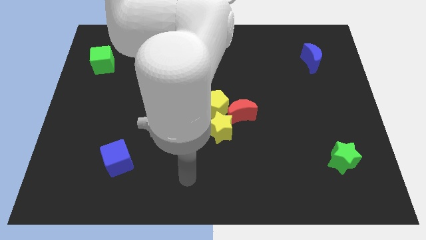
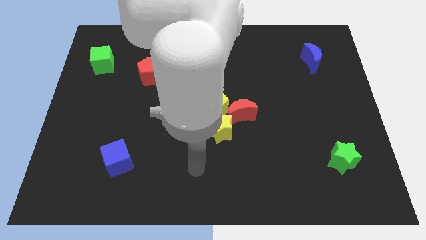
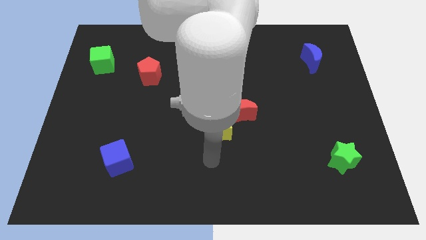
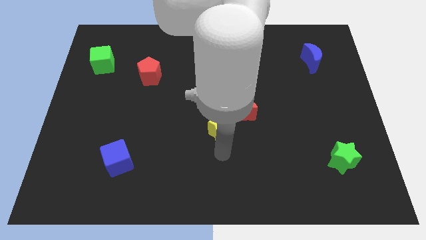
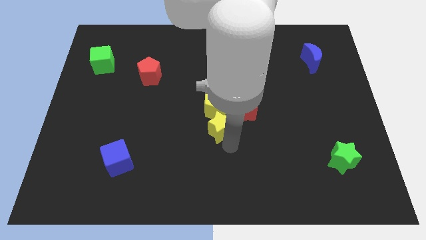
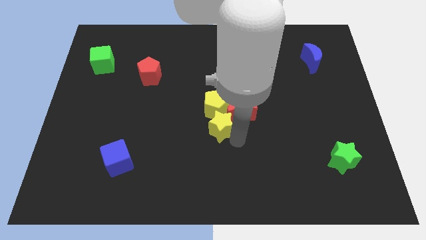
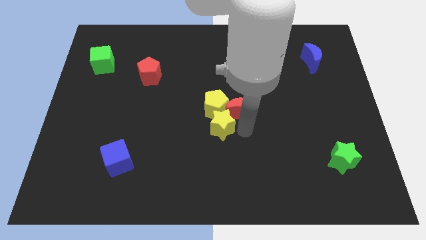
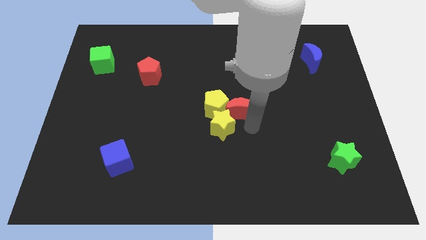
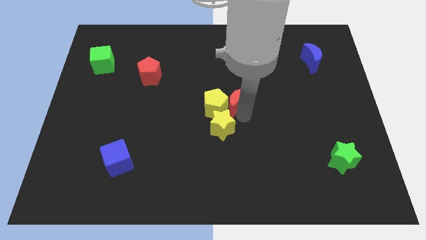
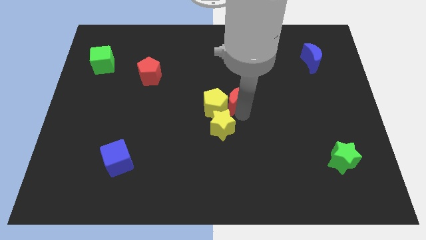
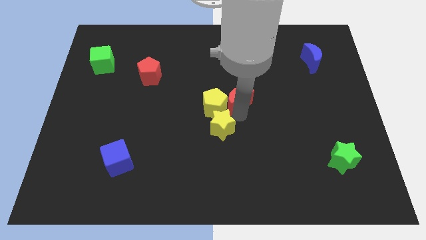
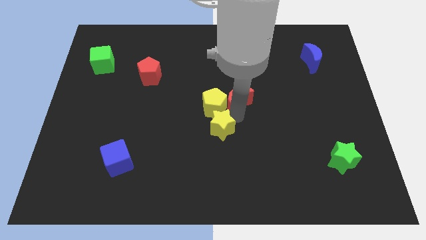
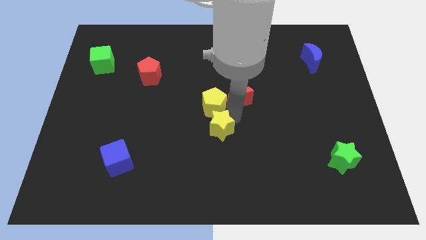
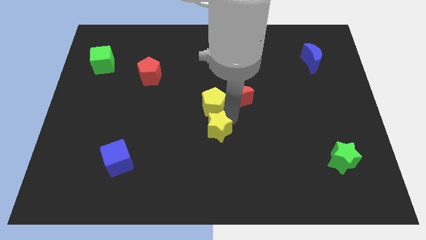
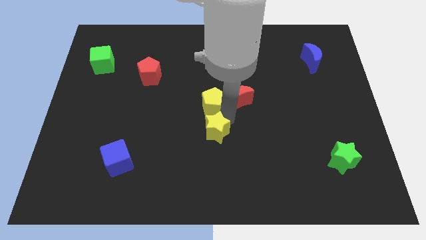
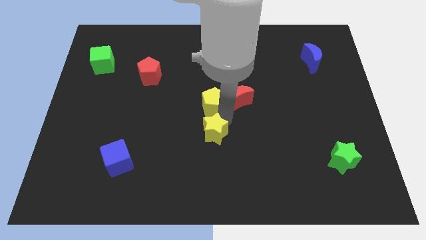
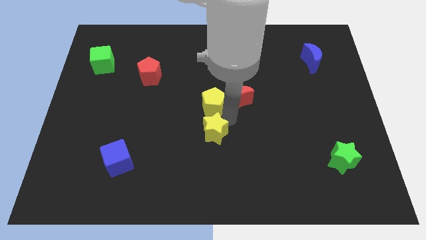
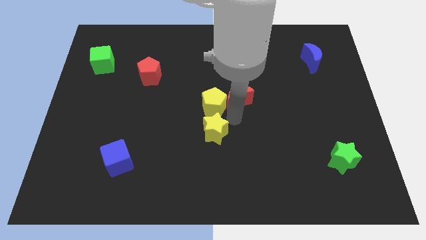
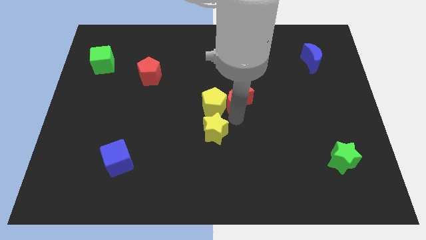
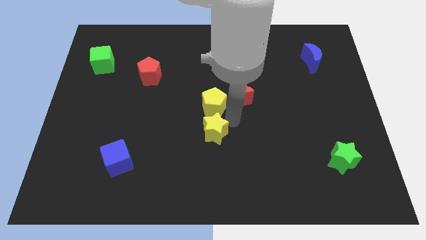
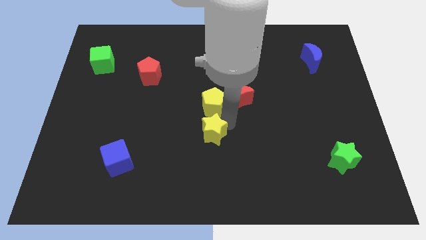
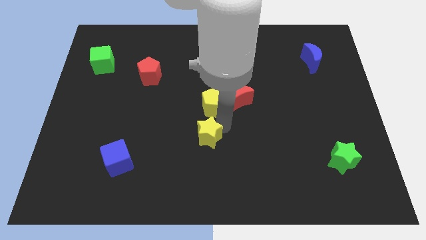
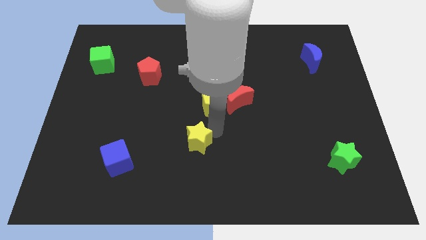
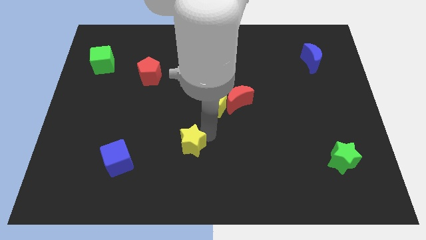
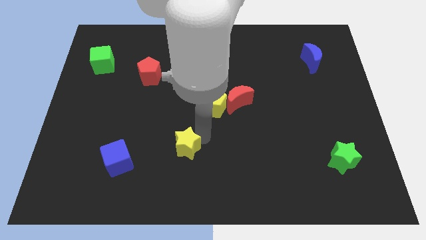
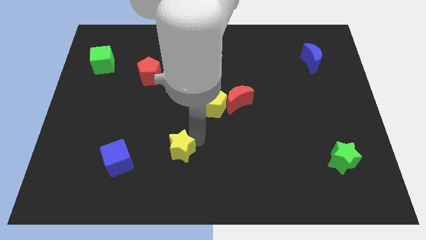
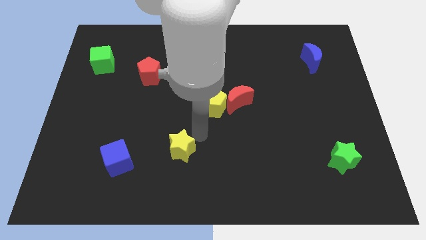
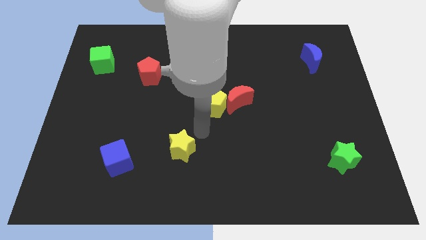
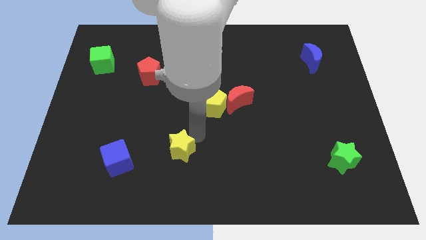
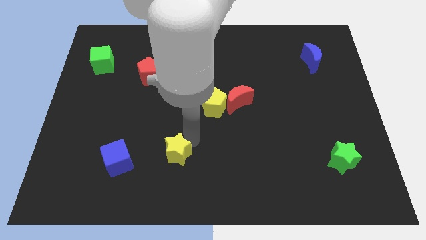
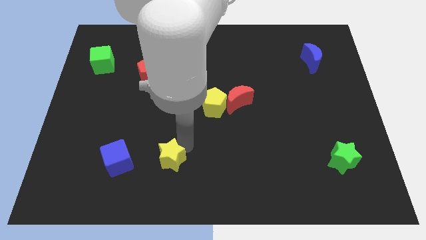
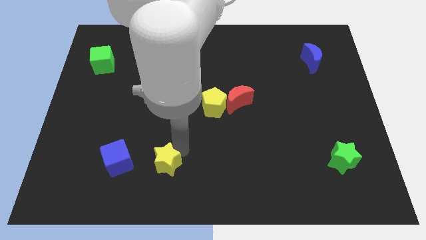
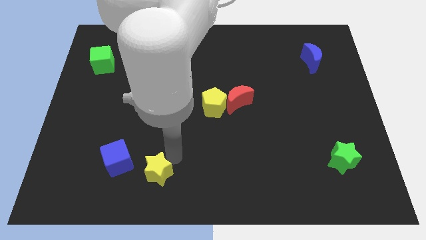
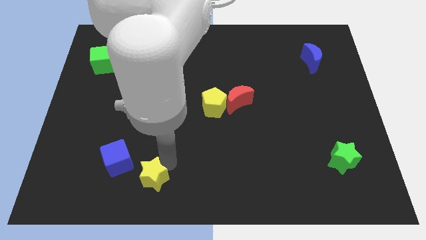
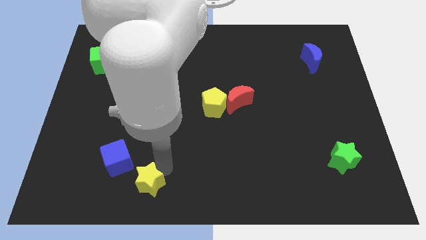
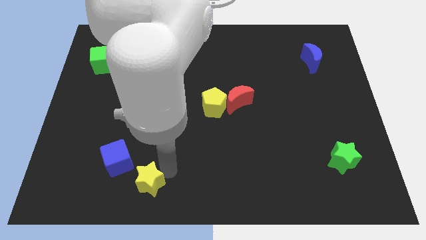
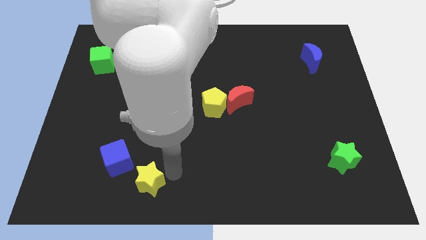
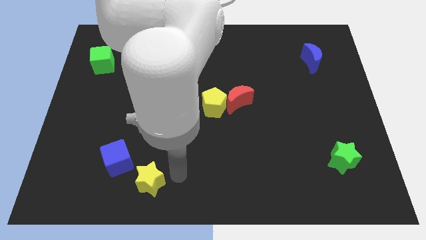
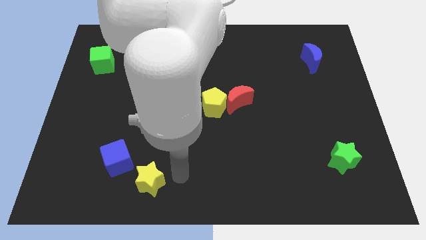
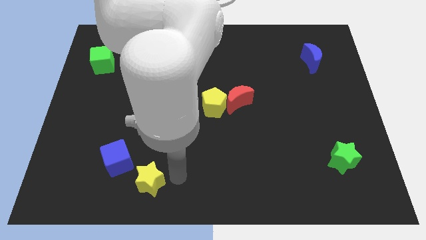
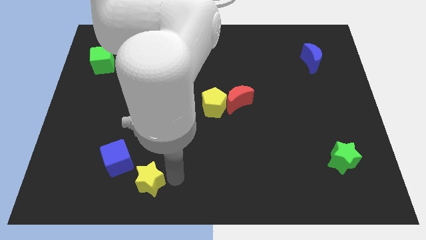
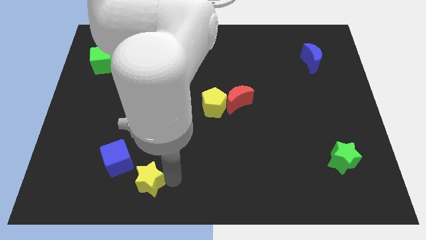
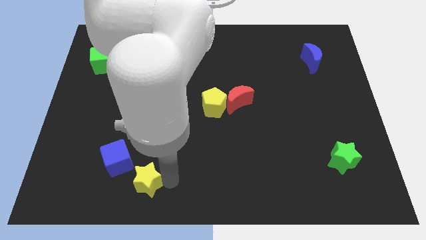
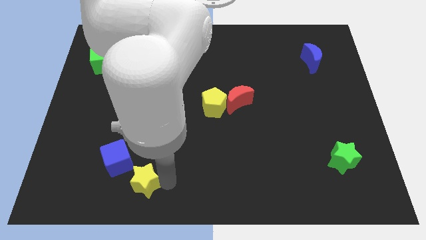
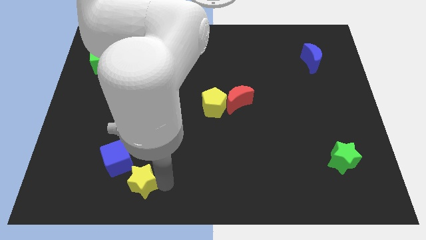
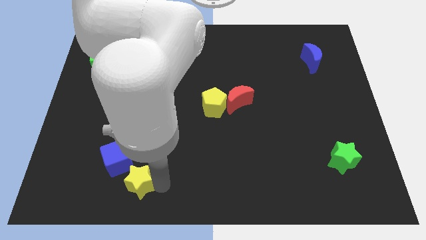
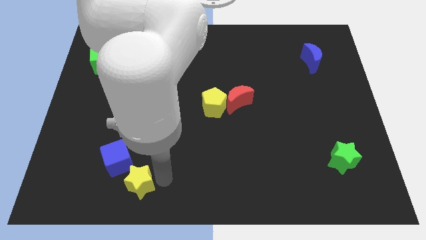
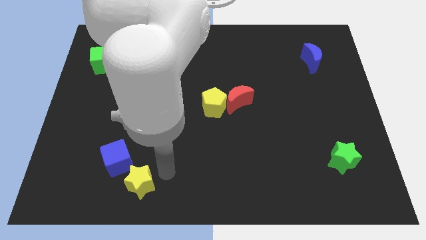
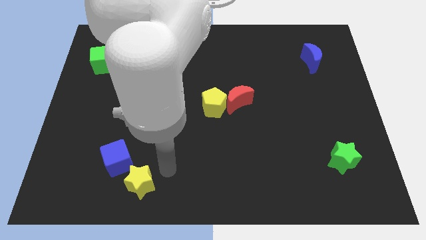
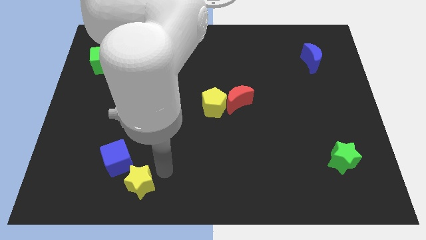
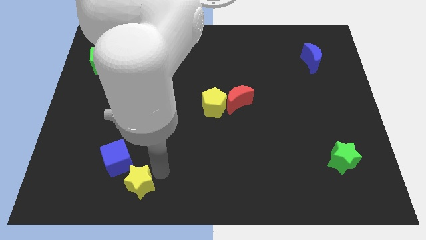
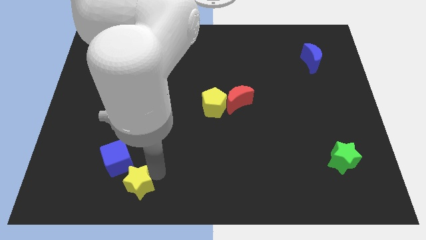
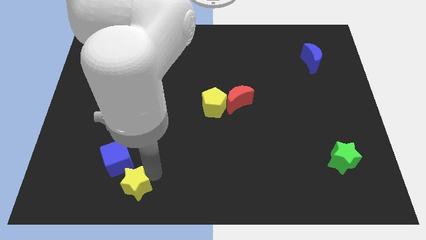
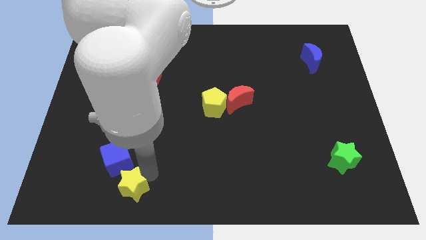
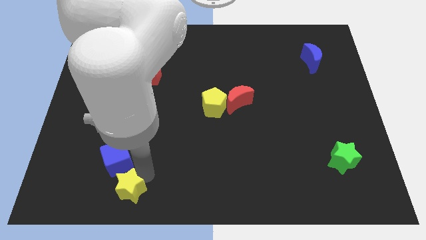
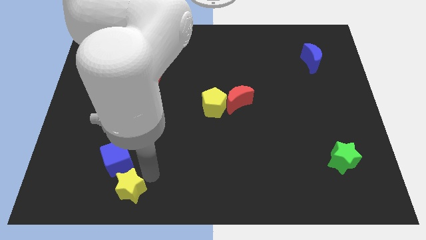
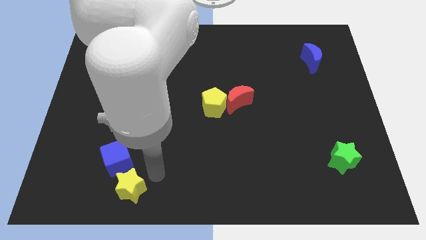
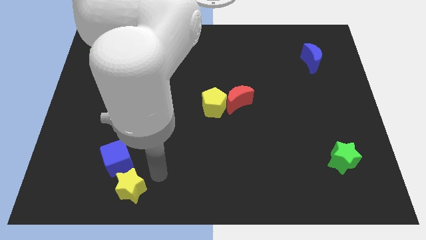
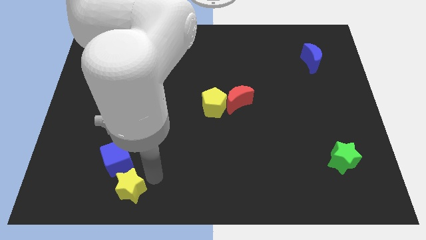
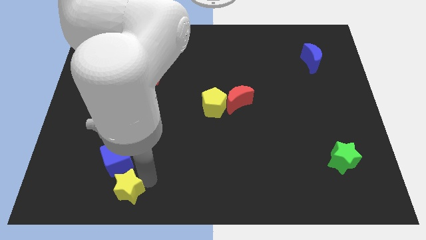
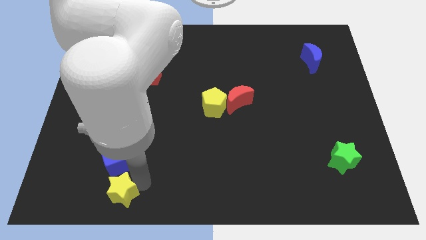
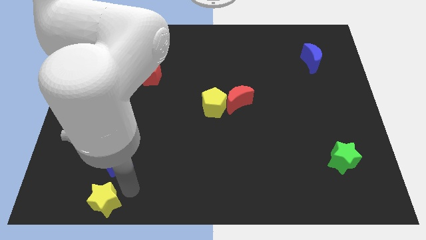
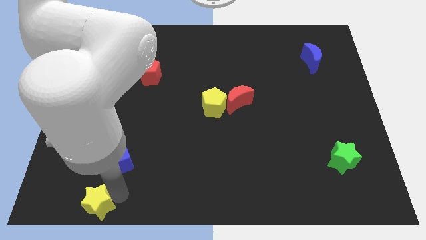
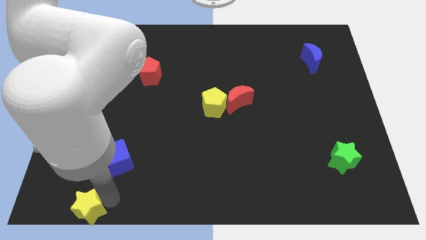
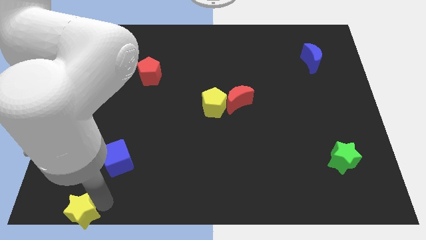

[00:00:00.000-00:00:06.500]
push the yellow star to the lower left corner

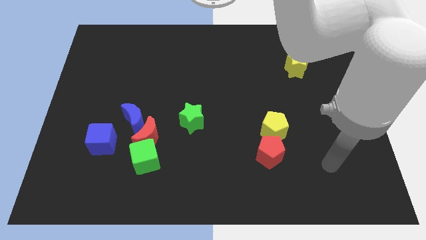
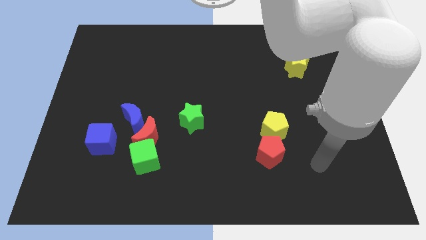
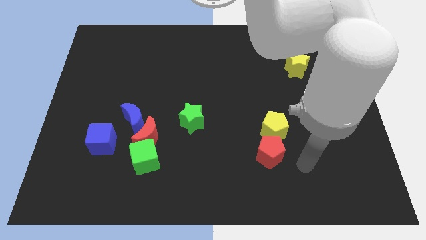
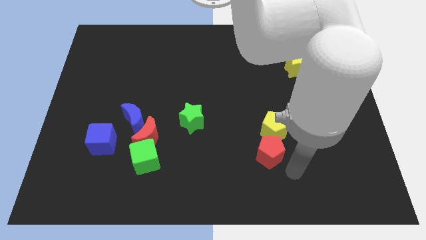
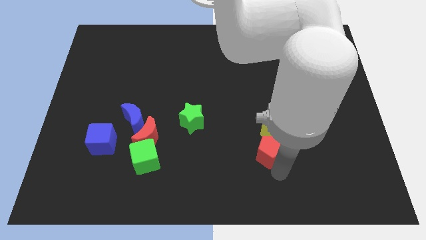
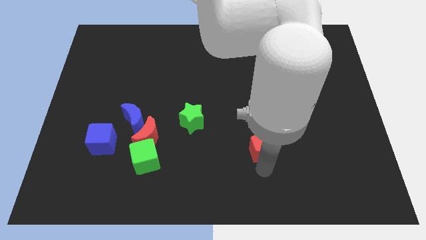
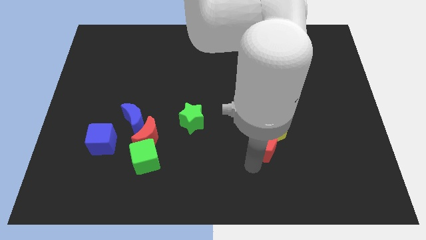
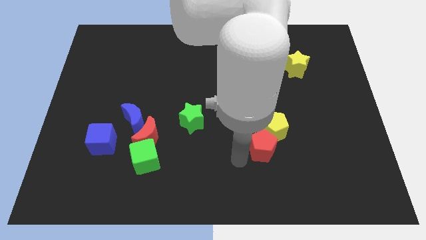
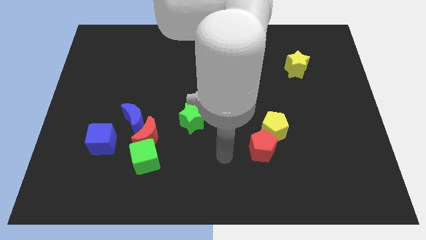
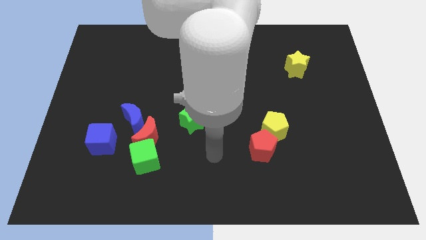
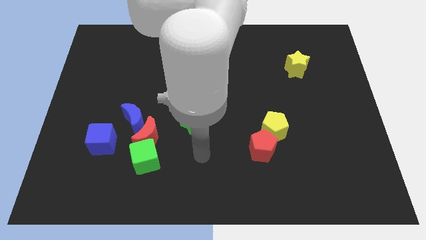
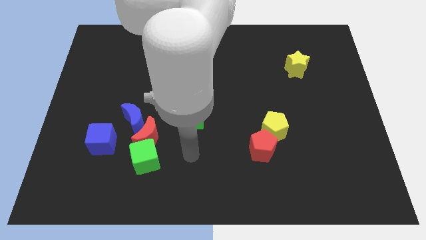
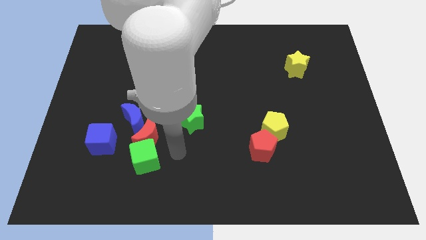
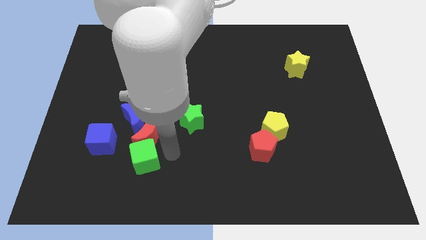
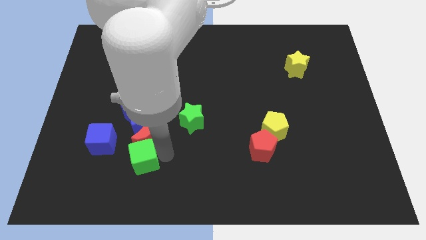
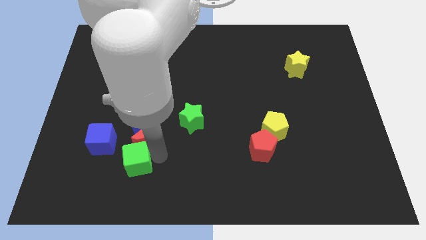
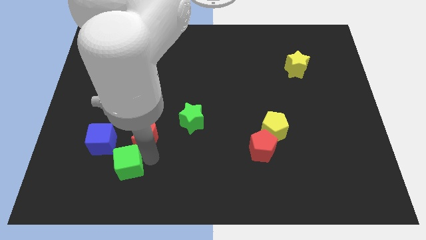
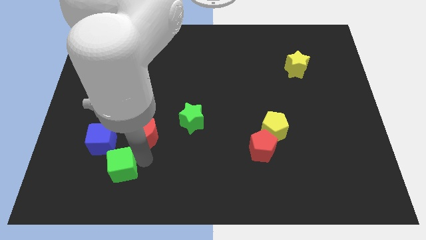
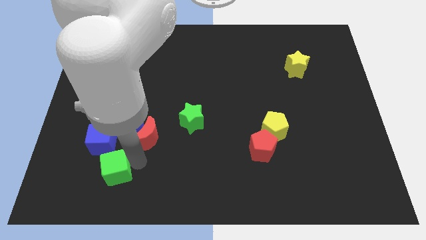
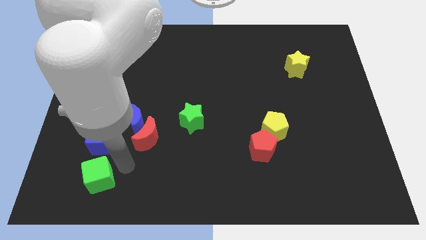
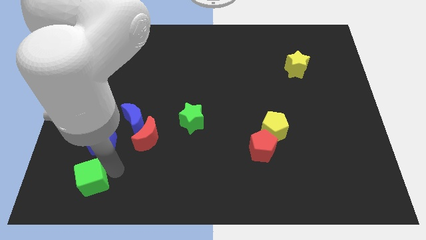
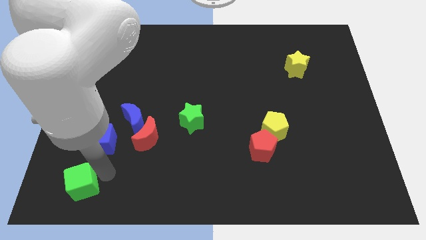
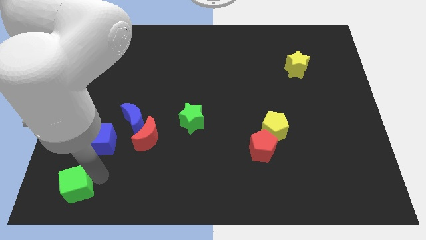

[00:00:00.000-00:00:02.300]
move the green cube to the bottom left of the board
